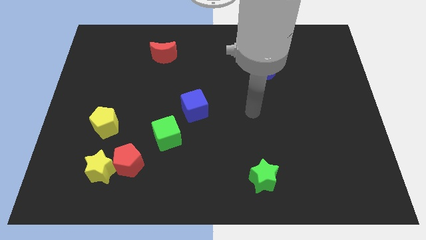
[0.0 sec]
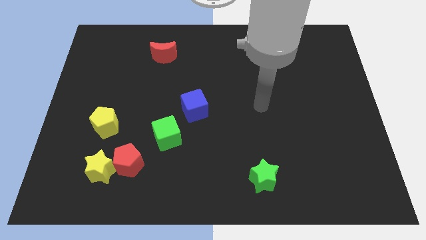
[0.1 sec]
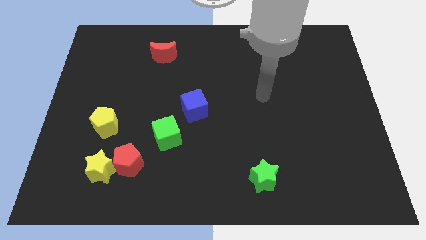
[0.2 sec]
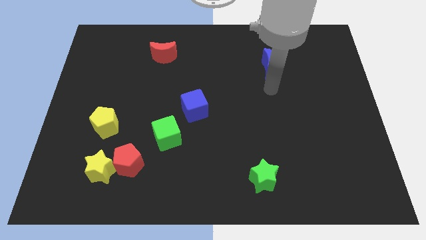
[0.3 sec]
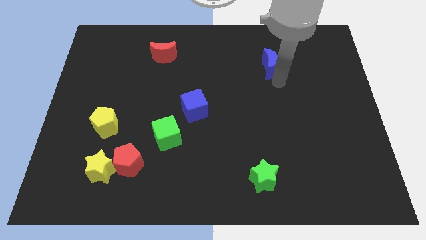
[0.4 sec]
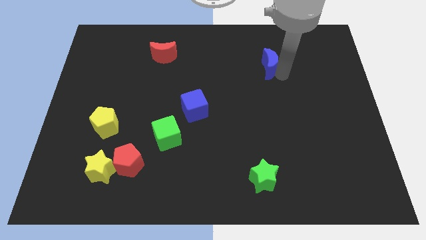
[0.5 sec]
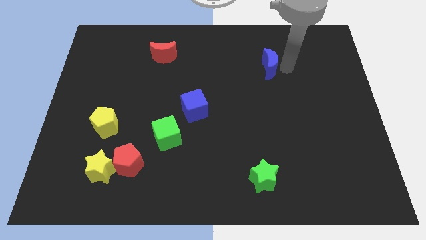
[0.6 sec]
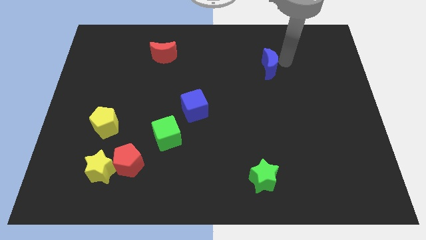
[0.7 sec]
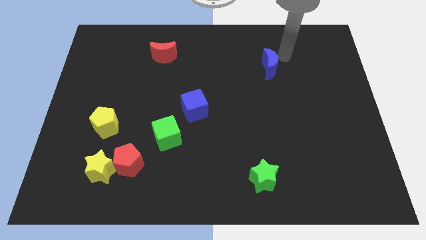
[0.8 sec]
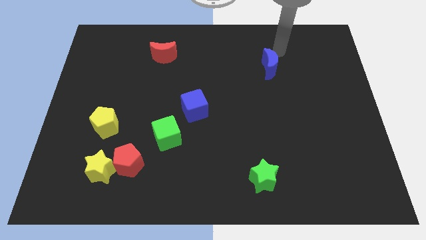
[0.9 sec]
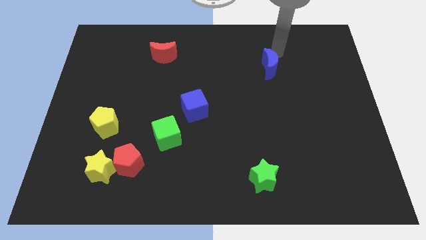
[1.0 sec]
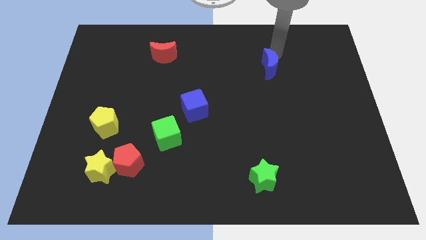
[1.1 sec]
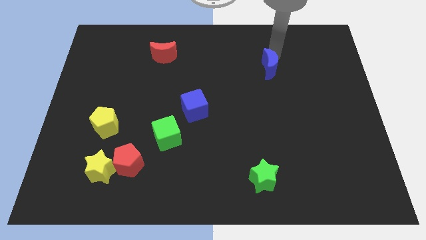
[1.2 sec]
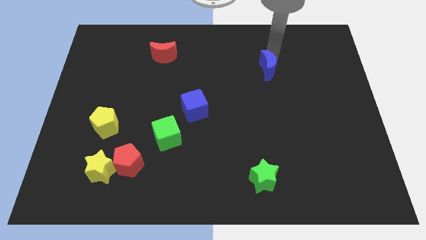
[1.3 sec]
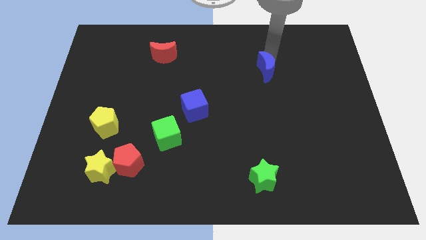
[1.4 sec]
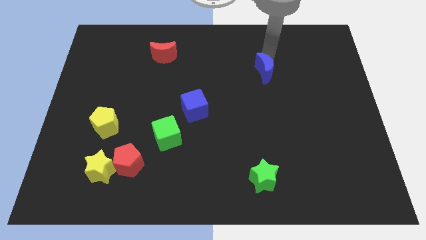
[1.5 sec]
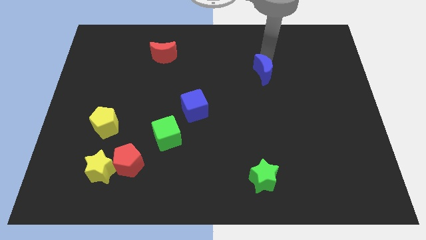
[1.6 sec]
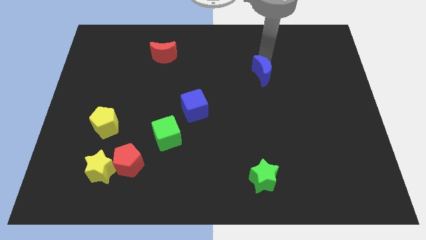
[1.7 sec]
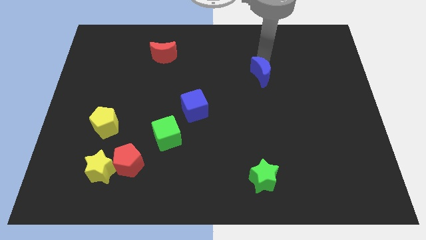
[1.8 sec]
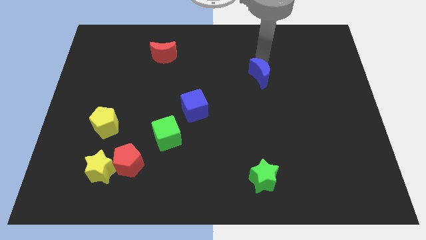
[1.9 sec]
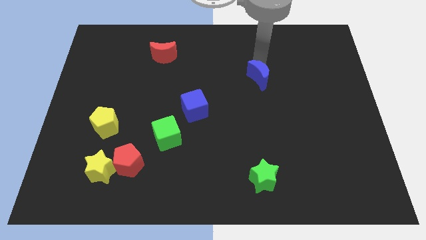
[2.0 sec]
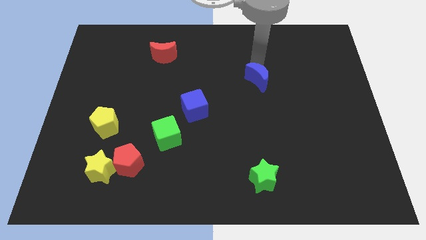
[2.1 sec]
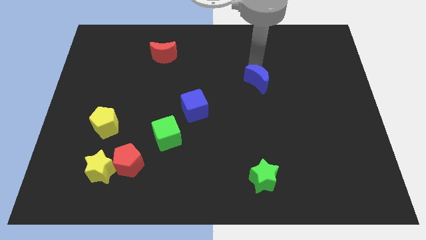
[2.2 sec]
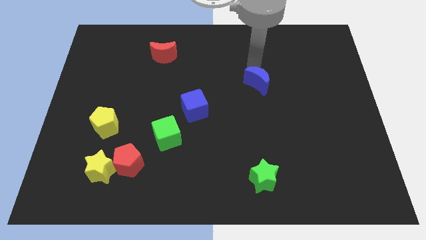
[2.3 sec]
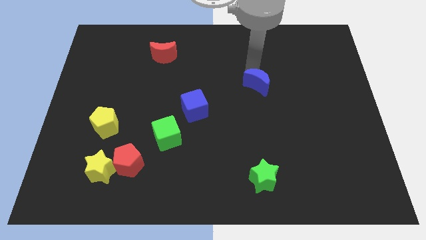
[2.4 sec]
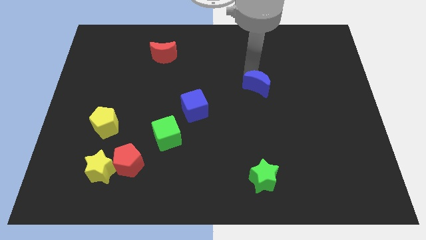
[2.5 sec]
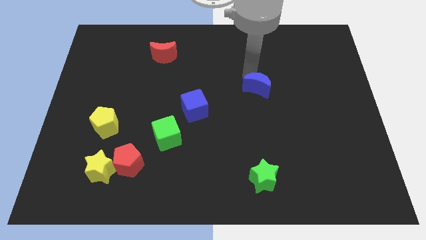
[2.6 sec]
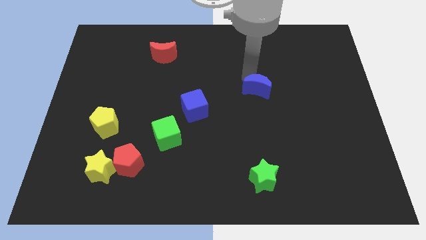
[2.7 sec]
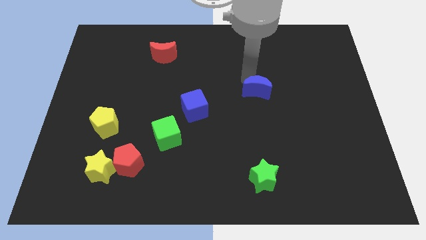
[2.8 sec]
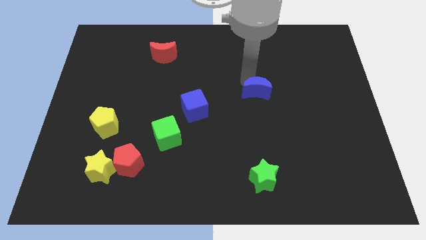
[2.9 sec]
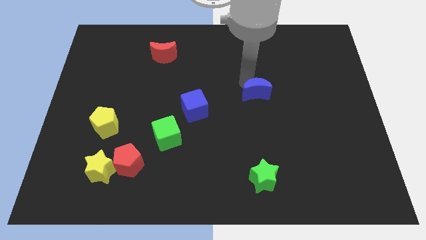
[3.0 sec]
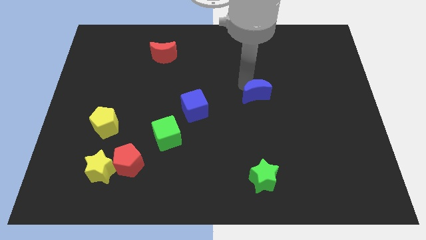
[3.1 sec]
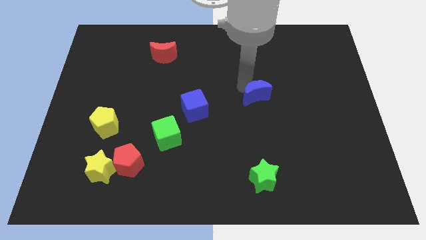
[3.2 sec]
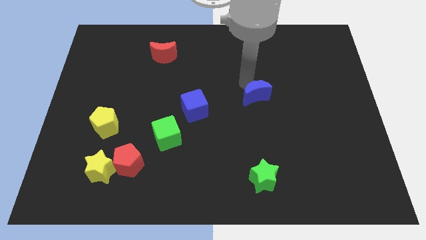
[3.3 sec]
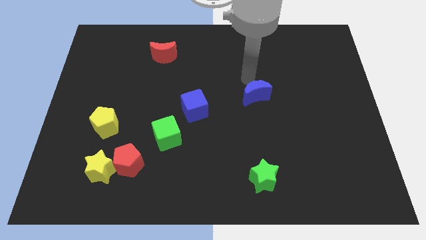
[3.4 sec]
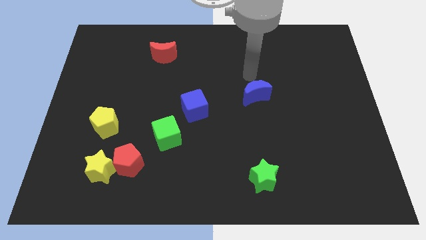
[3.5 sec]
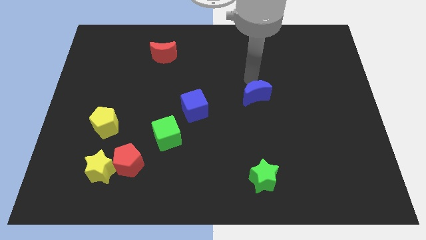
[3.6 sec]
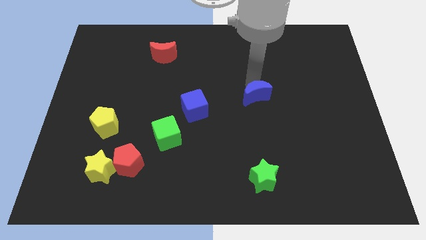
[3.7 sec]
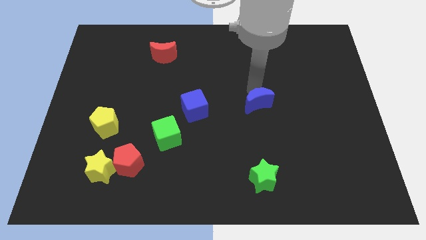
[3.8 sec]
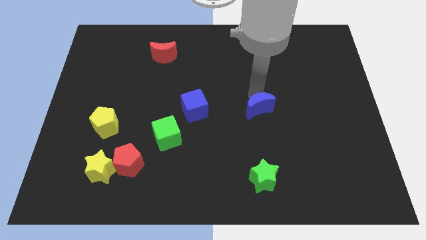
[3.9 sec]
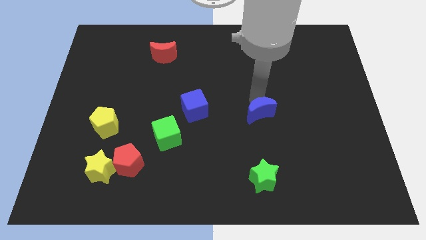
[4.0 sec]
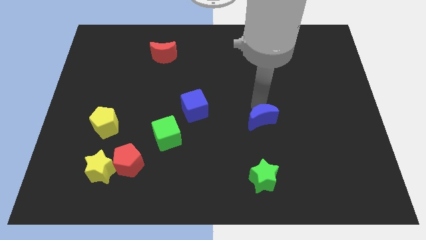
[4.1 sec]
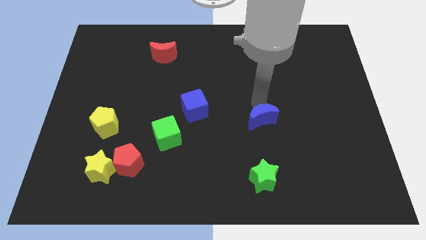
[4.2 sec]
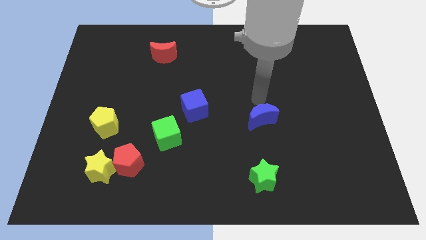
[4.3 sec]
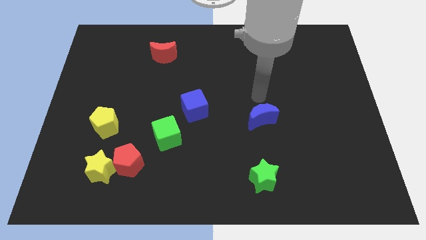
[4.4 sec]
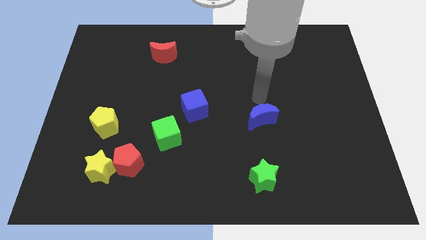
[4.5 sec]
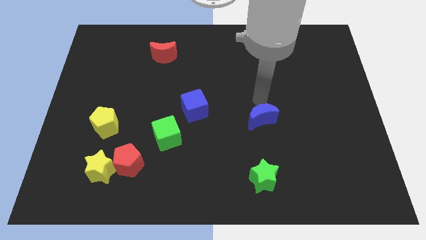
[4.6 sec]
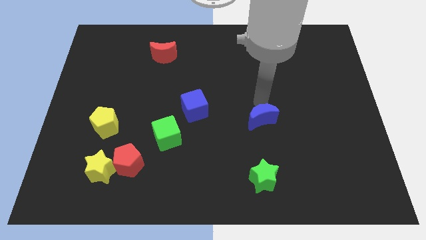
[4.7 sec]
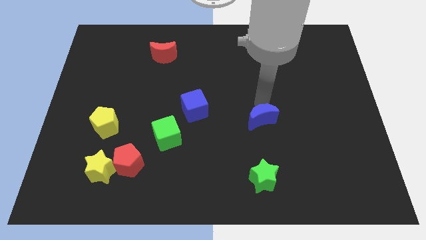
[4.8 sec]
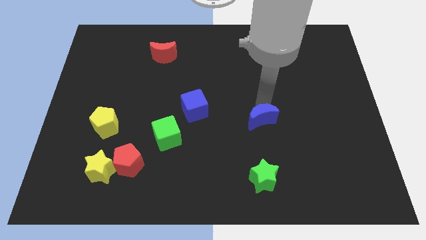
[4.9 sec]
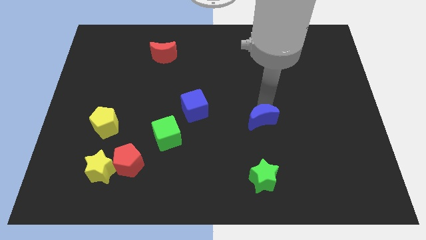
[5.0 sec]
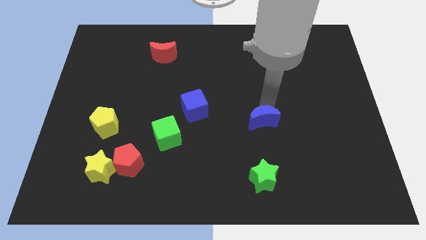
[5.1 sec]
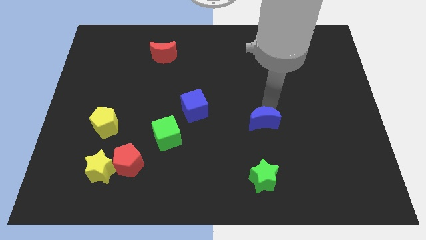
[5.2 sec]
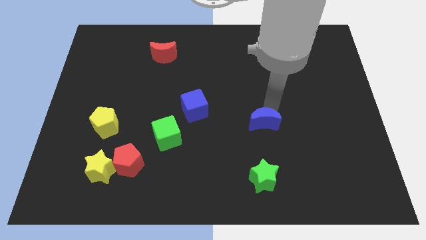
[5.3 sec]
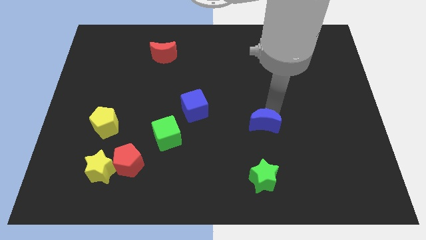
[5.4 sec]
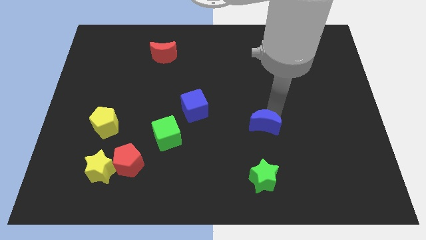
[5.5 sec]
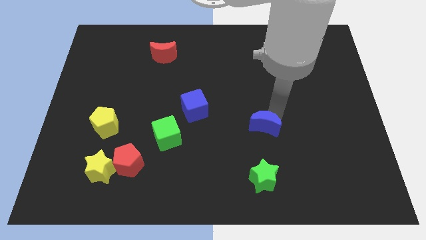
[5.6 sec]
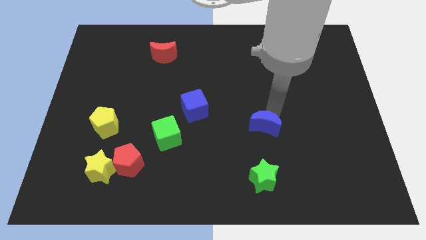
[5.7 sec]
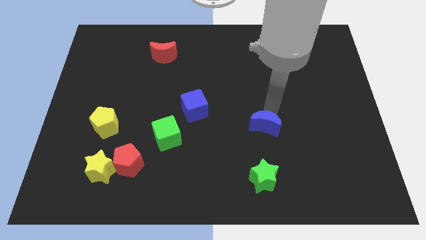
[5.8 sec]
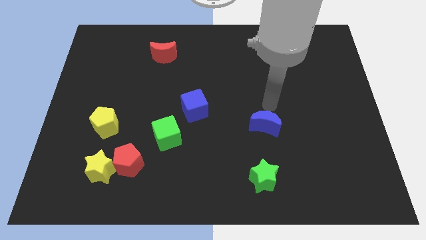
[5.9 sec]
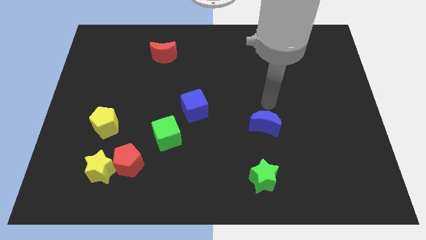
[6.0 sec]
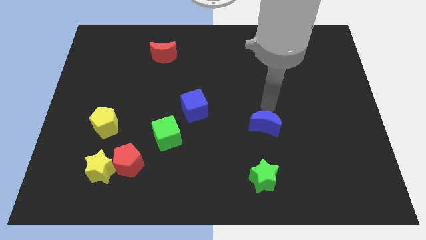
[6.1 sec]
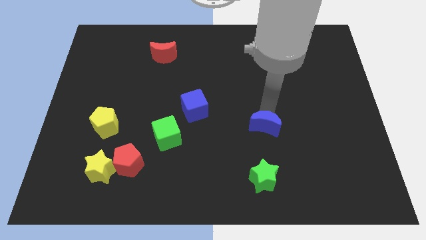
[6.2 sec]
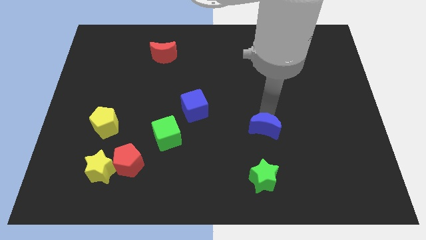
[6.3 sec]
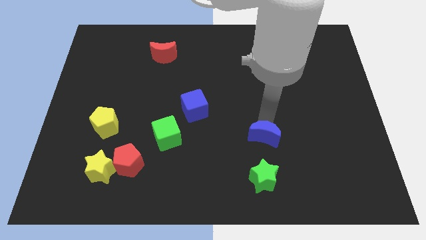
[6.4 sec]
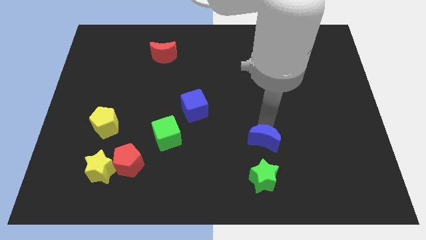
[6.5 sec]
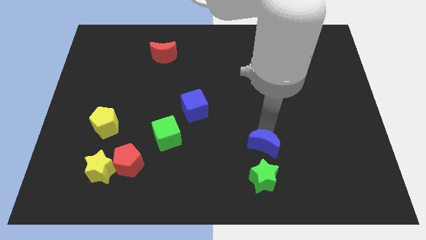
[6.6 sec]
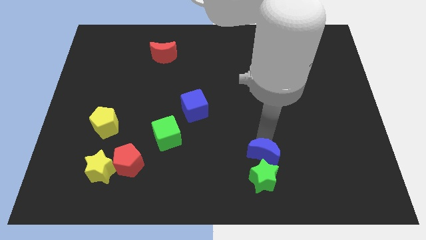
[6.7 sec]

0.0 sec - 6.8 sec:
push the blue moon towards the green star

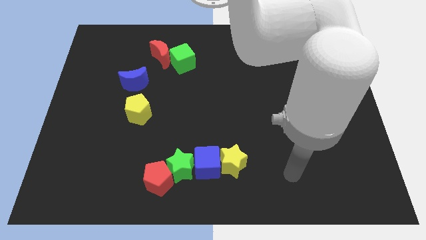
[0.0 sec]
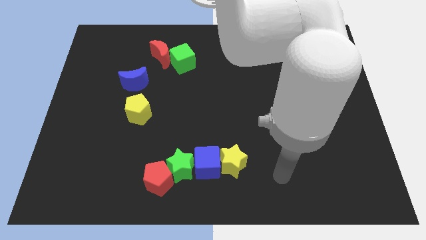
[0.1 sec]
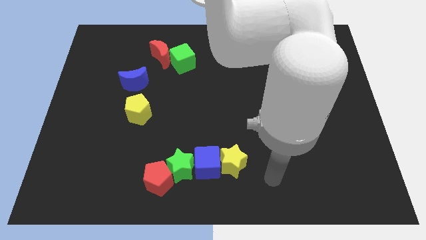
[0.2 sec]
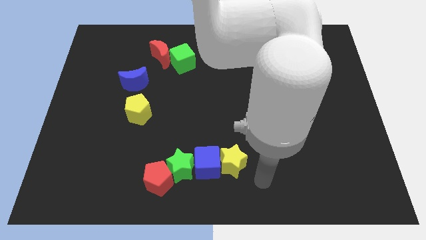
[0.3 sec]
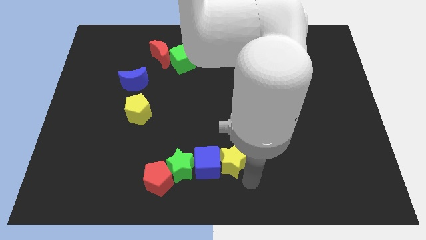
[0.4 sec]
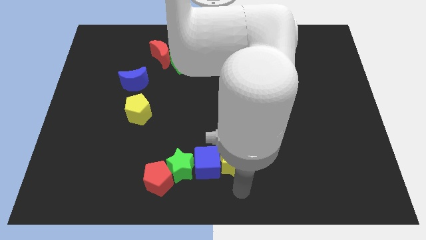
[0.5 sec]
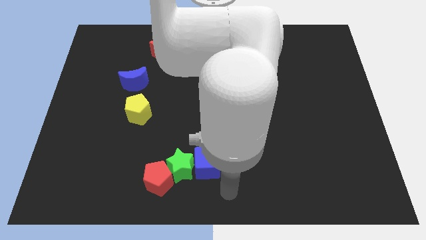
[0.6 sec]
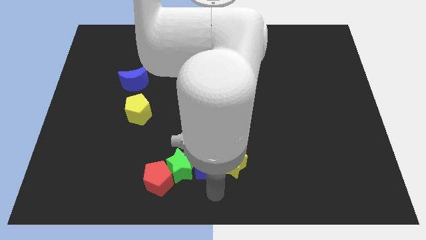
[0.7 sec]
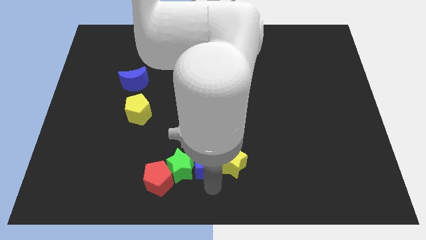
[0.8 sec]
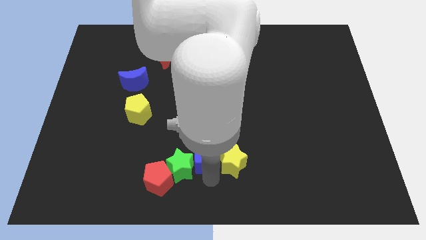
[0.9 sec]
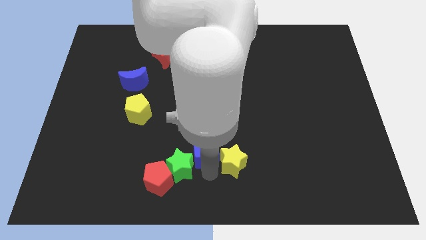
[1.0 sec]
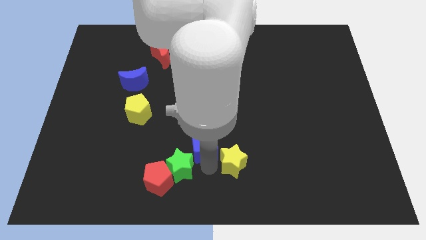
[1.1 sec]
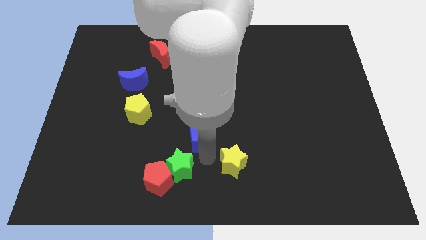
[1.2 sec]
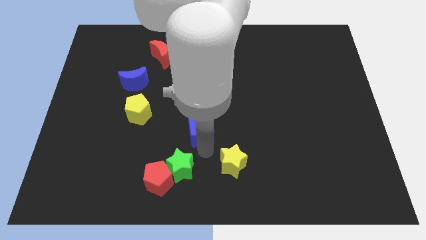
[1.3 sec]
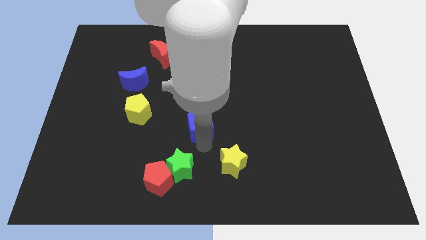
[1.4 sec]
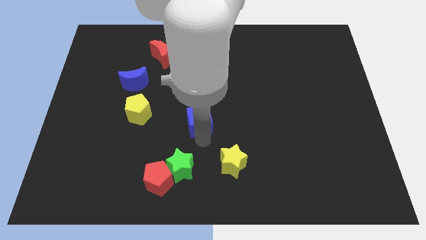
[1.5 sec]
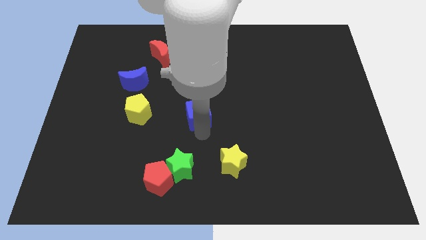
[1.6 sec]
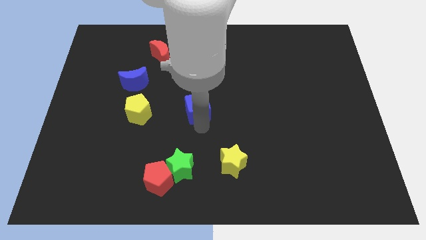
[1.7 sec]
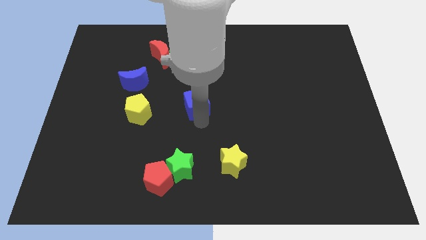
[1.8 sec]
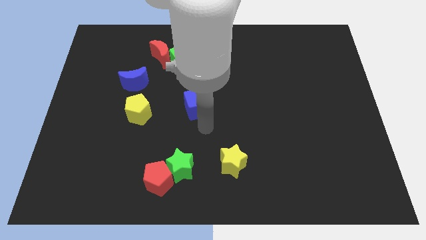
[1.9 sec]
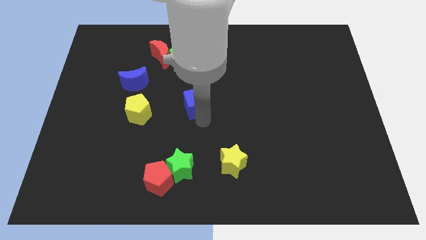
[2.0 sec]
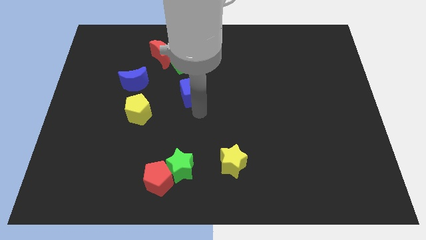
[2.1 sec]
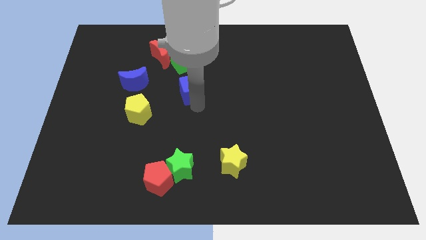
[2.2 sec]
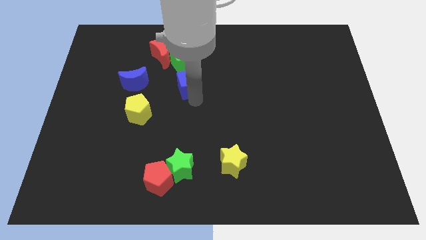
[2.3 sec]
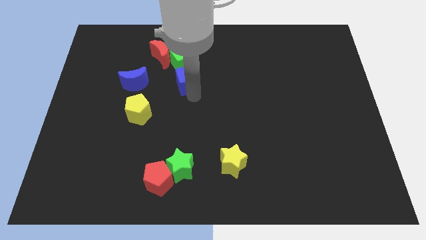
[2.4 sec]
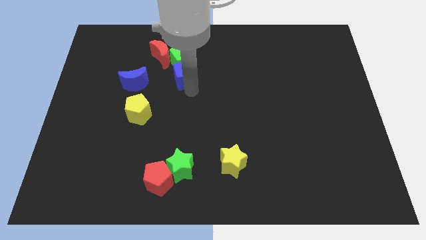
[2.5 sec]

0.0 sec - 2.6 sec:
slide the blue cube next to the green cube
